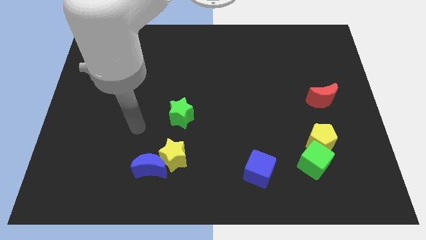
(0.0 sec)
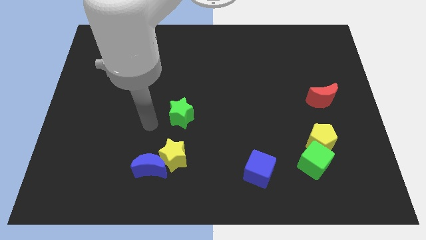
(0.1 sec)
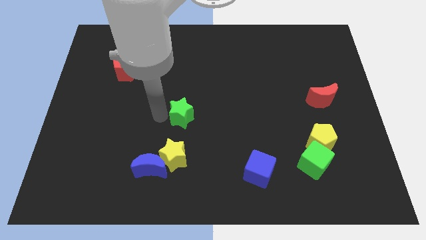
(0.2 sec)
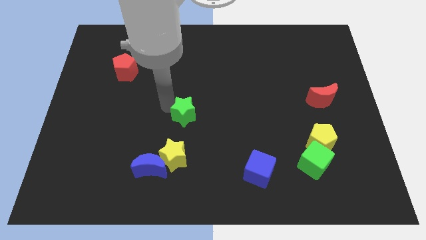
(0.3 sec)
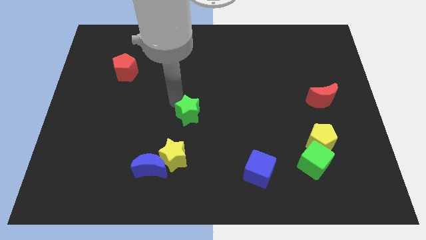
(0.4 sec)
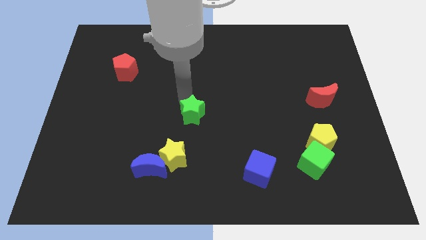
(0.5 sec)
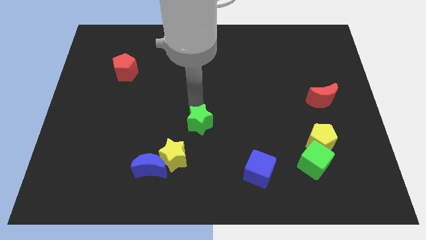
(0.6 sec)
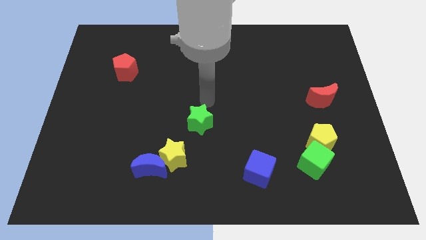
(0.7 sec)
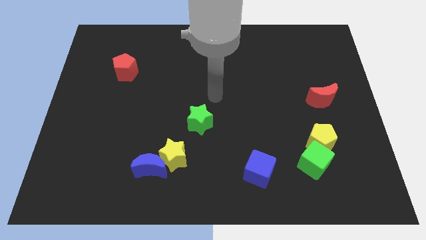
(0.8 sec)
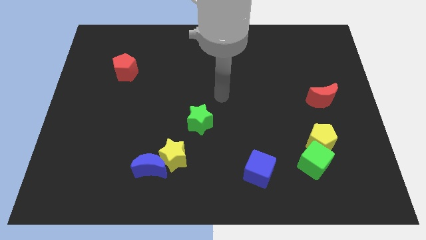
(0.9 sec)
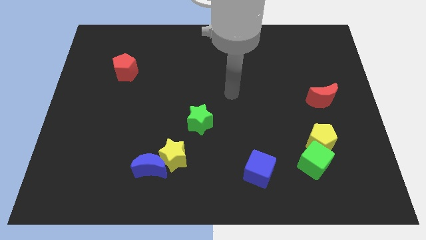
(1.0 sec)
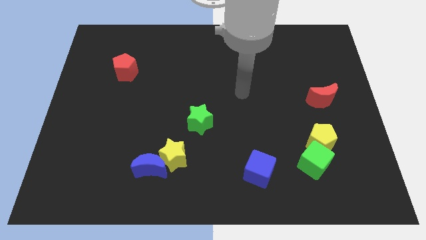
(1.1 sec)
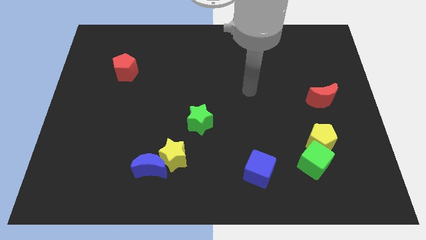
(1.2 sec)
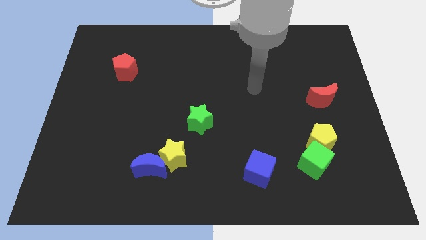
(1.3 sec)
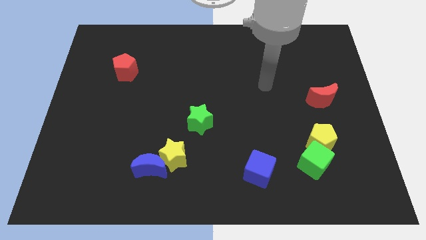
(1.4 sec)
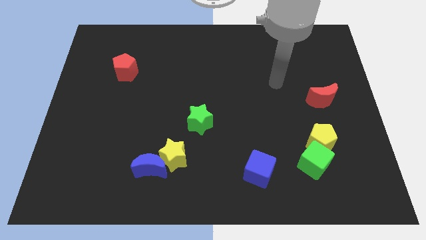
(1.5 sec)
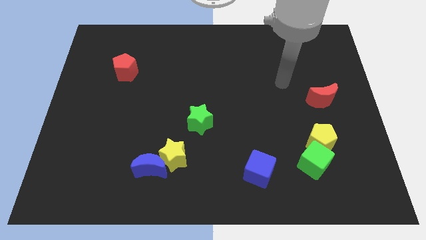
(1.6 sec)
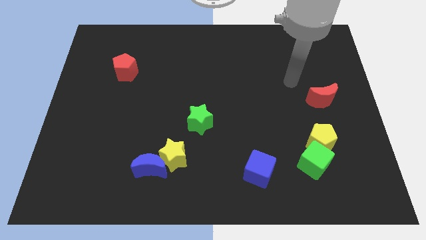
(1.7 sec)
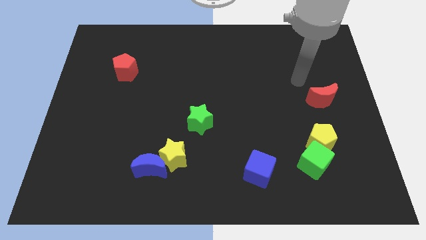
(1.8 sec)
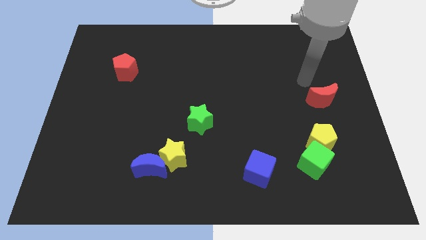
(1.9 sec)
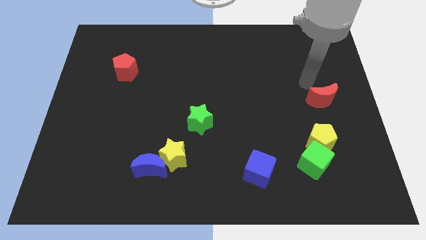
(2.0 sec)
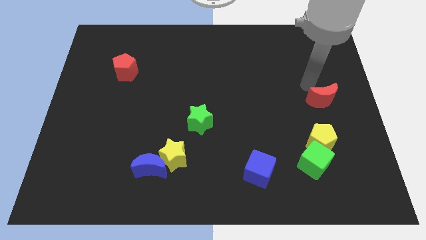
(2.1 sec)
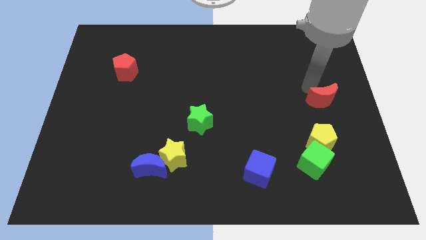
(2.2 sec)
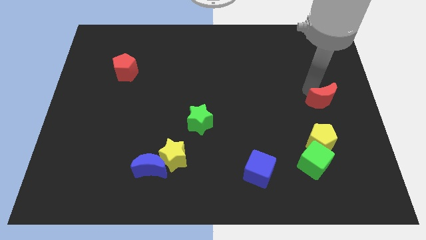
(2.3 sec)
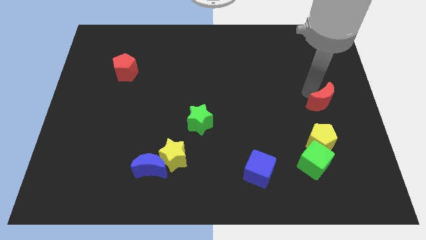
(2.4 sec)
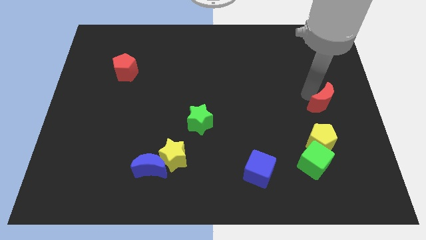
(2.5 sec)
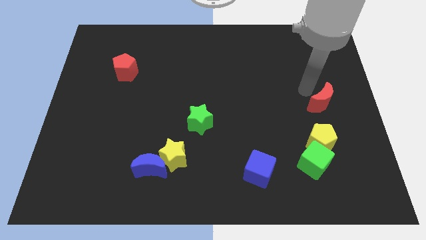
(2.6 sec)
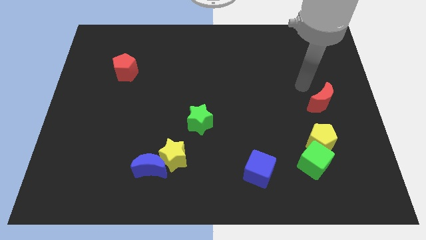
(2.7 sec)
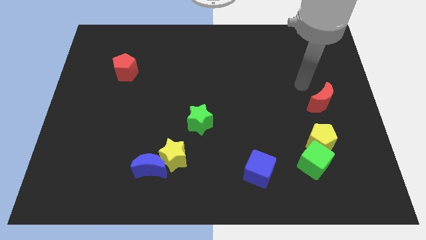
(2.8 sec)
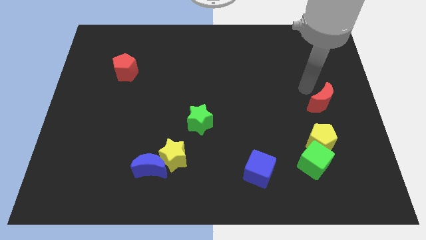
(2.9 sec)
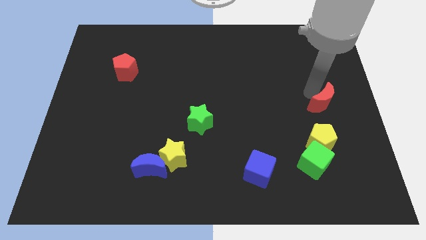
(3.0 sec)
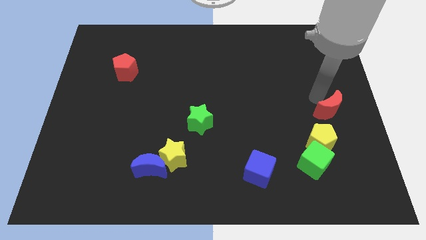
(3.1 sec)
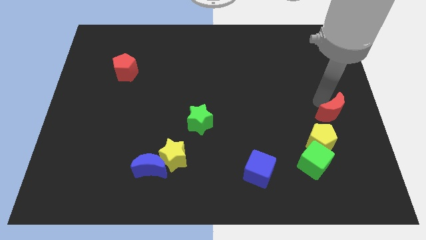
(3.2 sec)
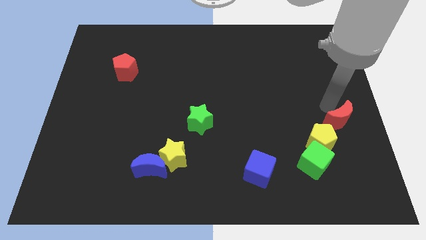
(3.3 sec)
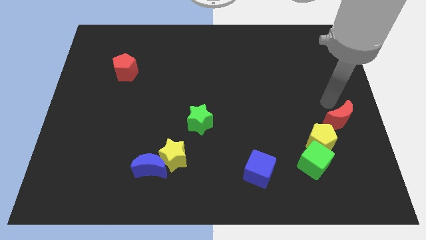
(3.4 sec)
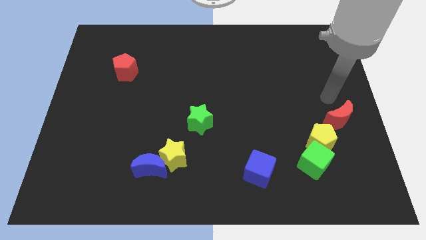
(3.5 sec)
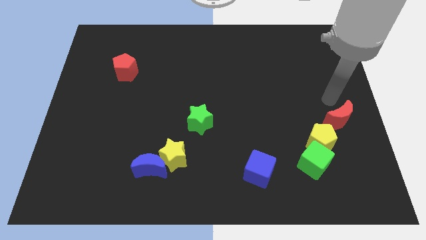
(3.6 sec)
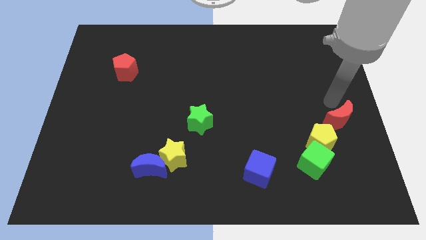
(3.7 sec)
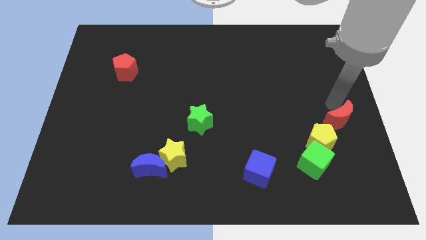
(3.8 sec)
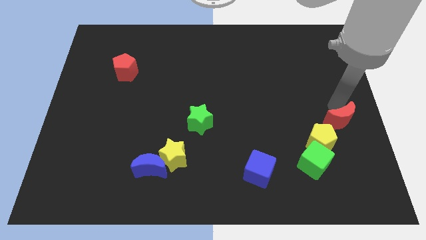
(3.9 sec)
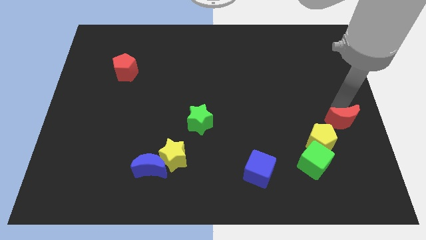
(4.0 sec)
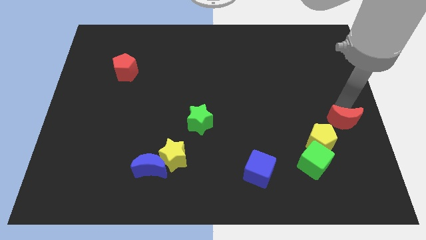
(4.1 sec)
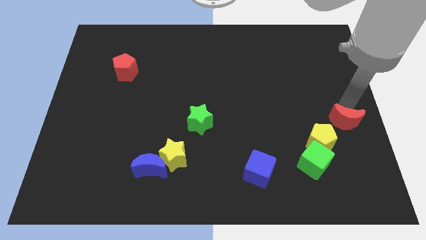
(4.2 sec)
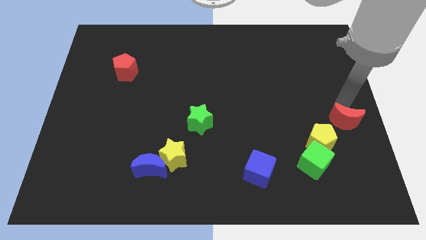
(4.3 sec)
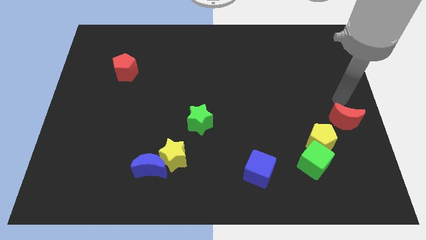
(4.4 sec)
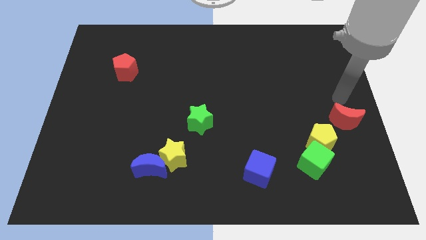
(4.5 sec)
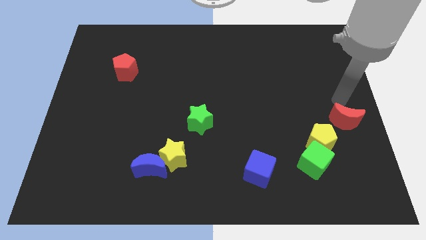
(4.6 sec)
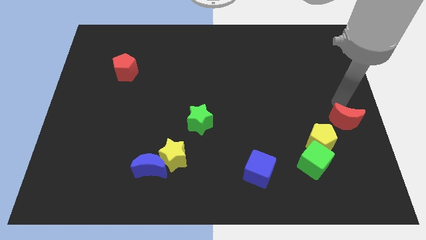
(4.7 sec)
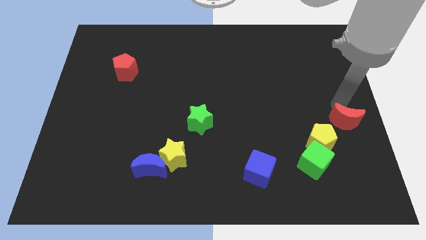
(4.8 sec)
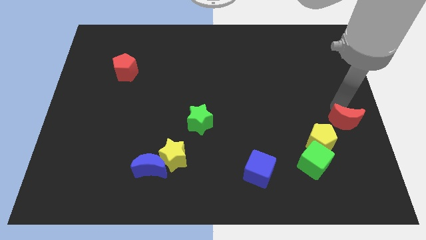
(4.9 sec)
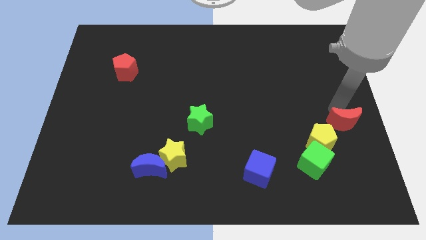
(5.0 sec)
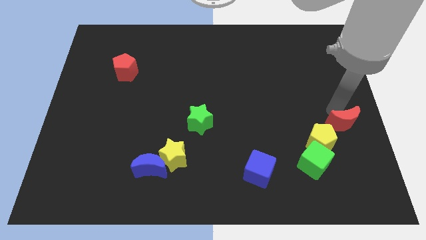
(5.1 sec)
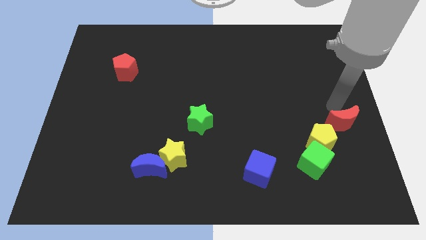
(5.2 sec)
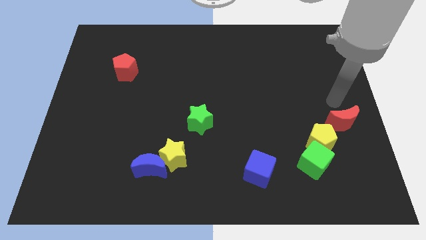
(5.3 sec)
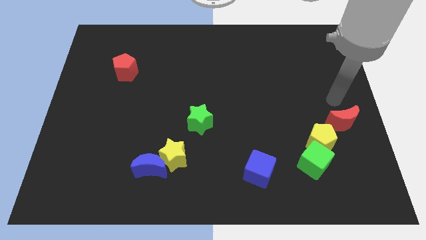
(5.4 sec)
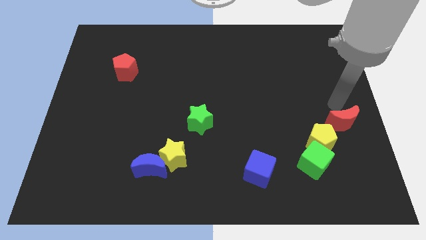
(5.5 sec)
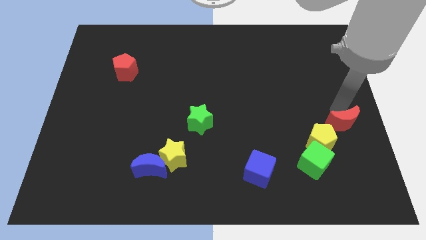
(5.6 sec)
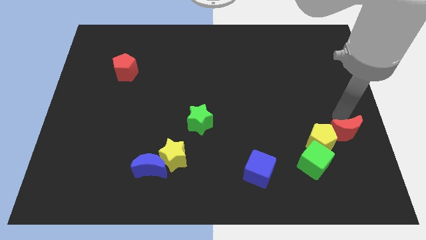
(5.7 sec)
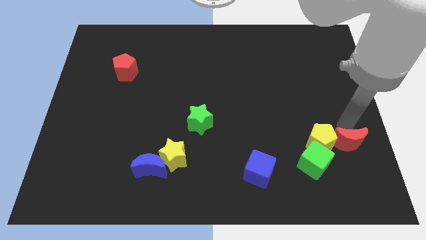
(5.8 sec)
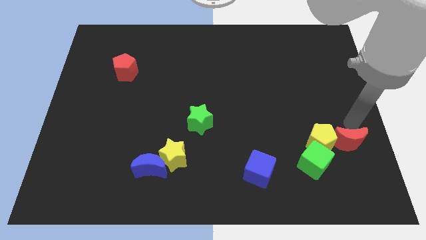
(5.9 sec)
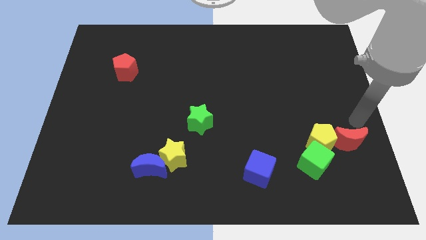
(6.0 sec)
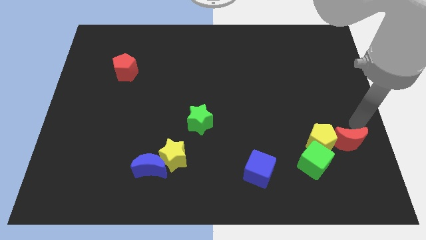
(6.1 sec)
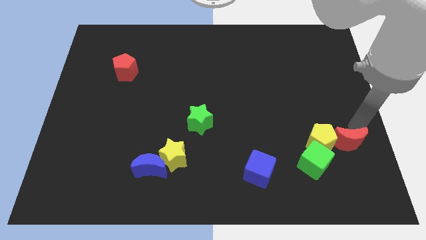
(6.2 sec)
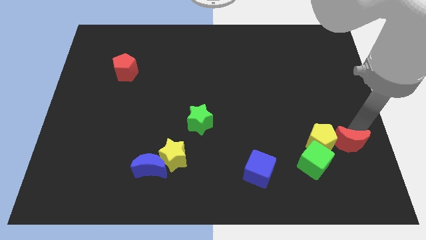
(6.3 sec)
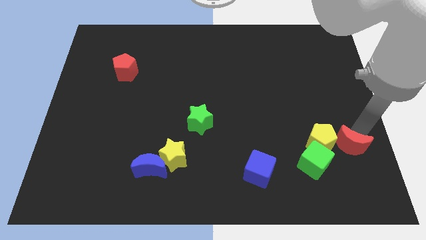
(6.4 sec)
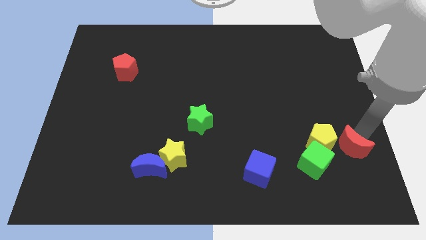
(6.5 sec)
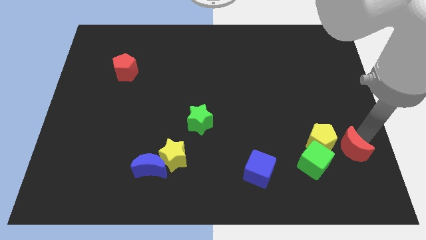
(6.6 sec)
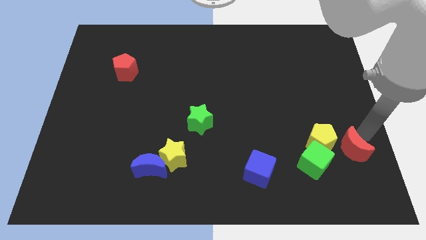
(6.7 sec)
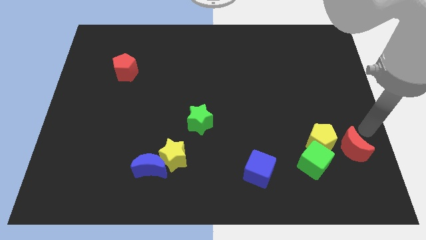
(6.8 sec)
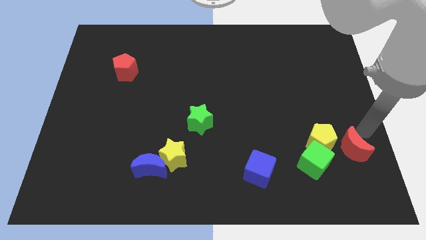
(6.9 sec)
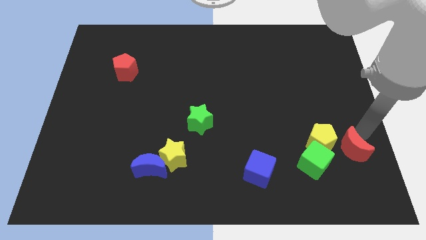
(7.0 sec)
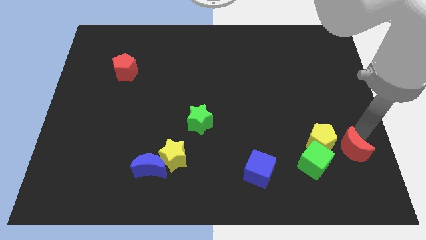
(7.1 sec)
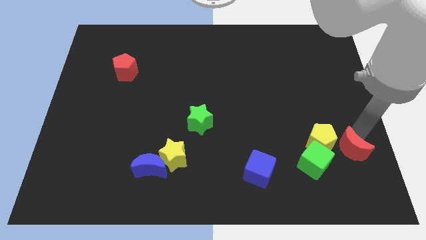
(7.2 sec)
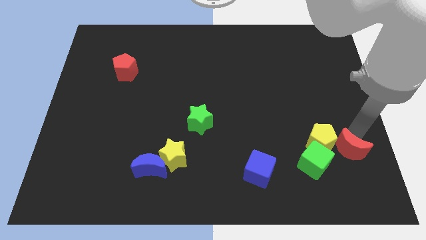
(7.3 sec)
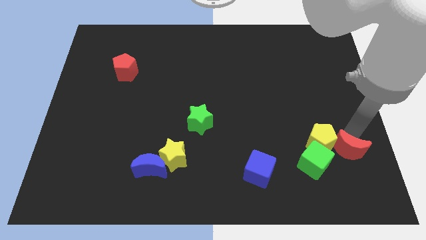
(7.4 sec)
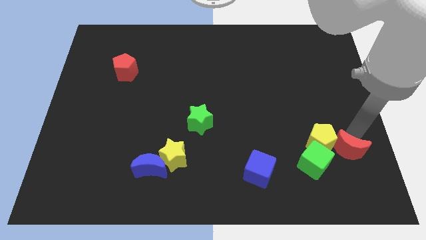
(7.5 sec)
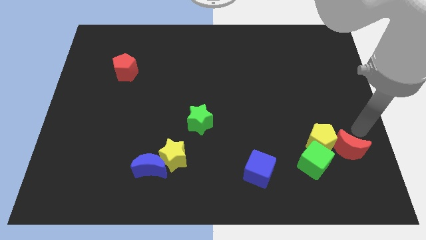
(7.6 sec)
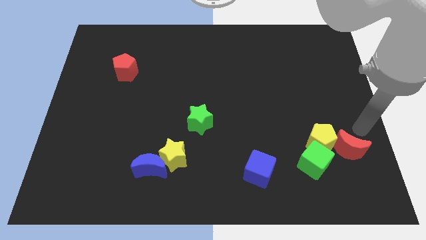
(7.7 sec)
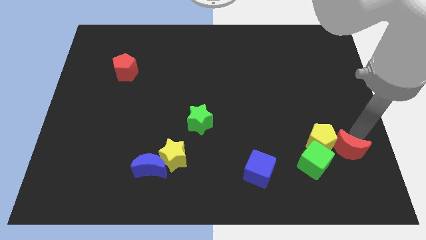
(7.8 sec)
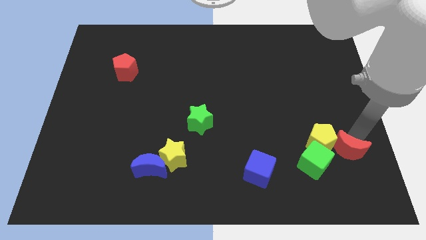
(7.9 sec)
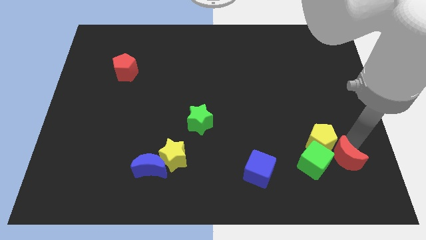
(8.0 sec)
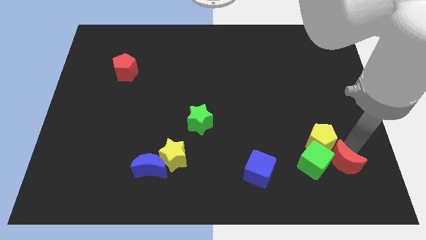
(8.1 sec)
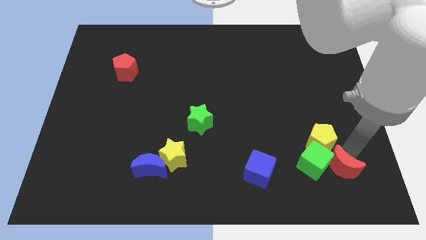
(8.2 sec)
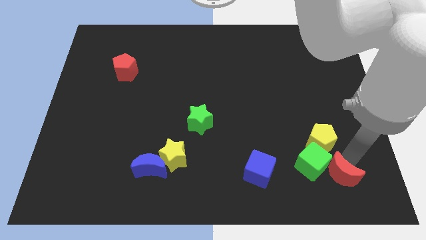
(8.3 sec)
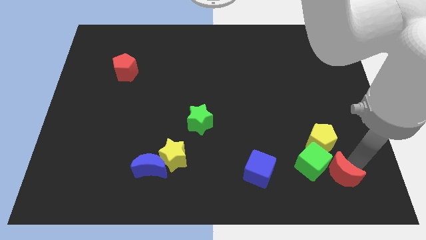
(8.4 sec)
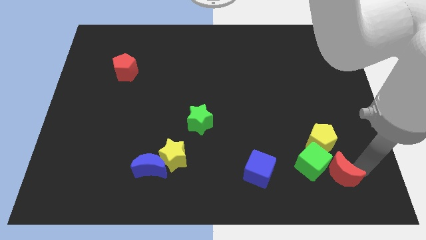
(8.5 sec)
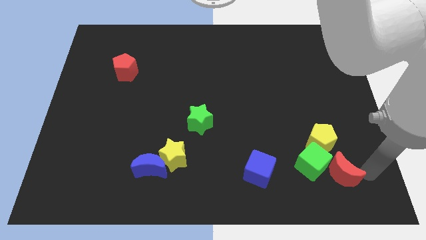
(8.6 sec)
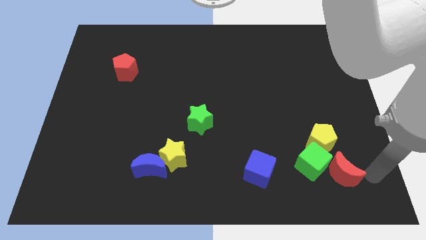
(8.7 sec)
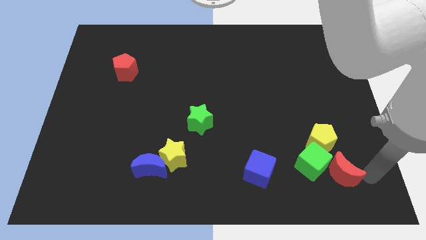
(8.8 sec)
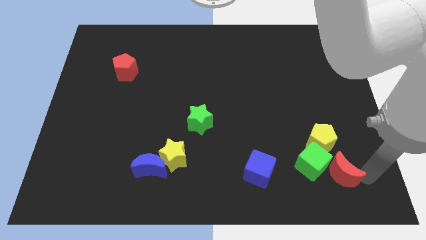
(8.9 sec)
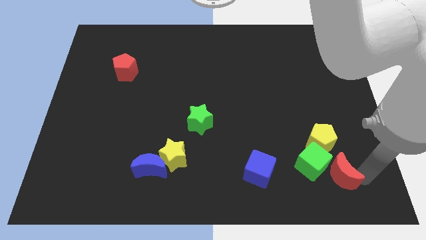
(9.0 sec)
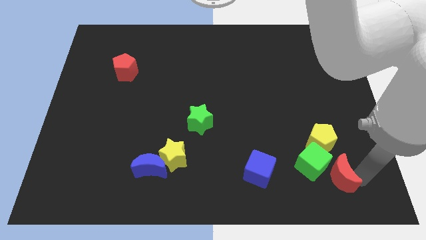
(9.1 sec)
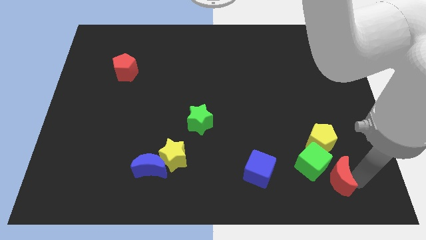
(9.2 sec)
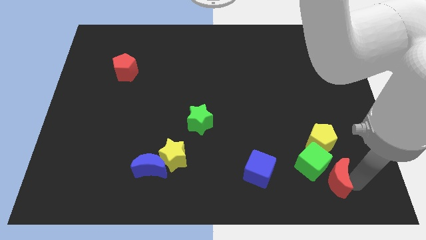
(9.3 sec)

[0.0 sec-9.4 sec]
put the red moon just right of the blue cube
